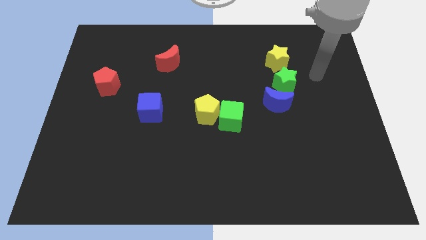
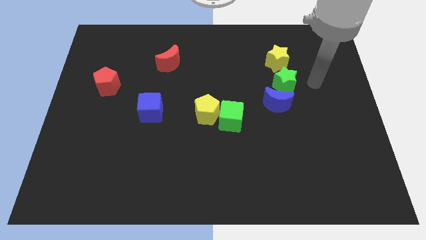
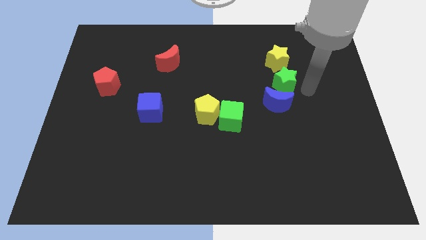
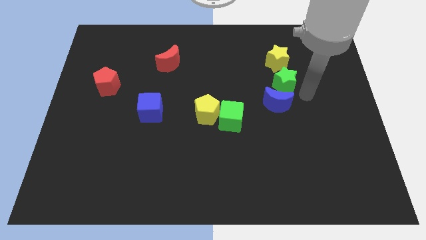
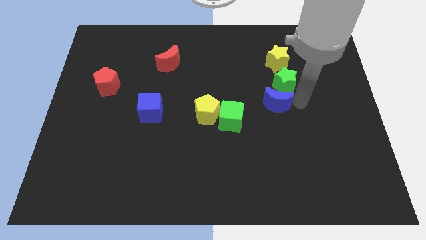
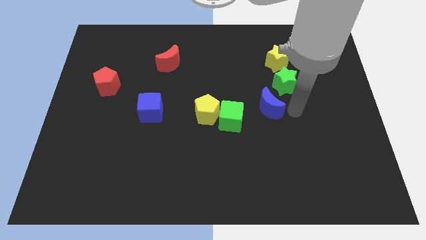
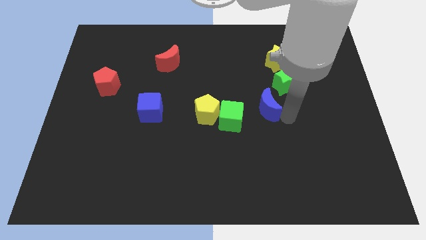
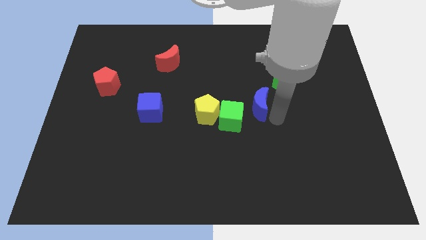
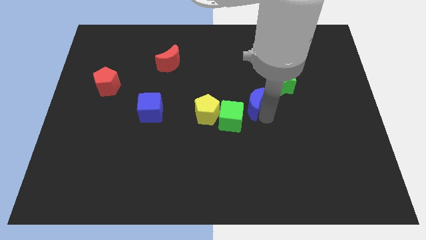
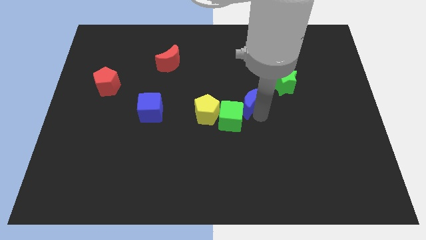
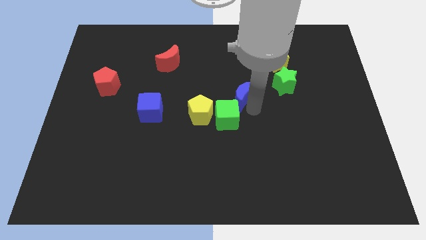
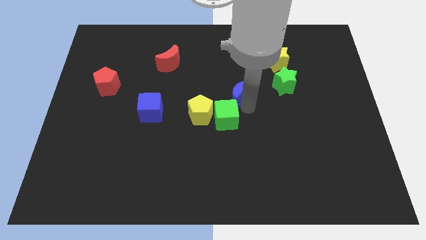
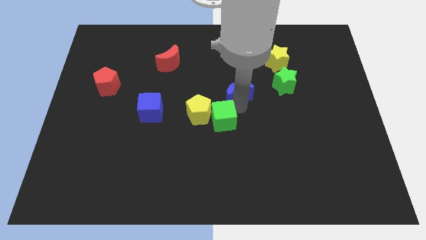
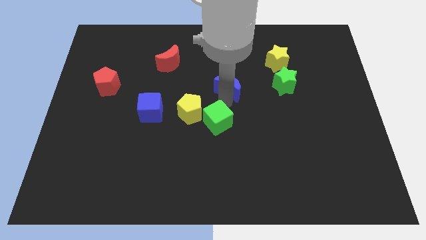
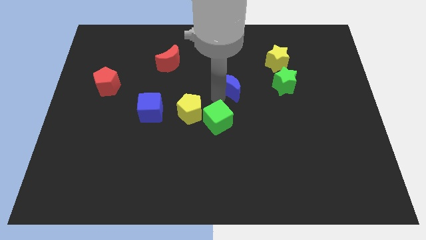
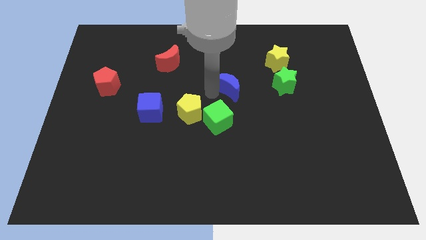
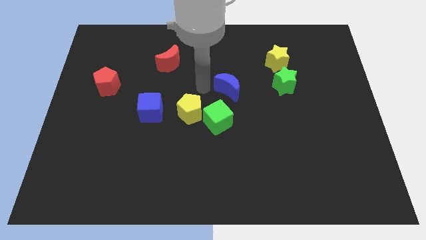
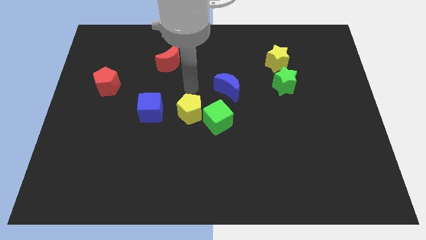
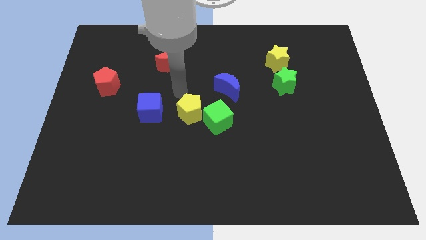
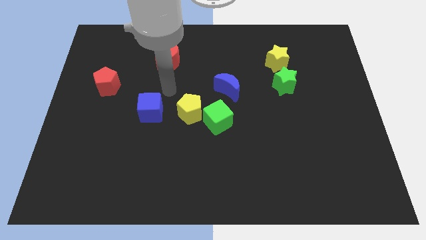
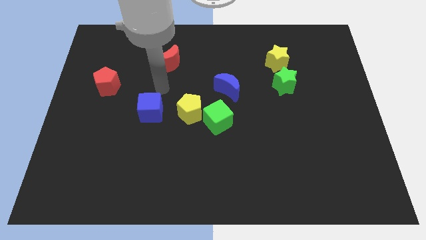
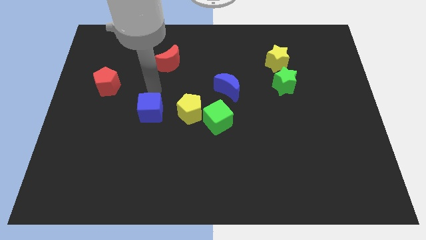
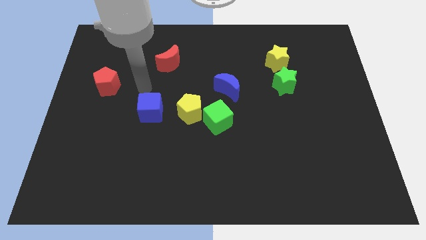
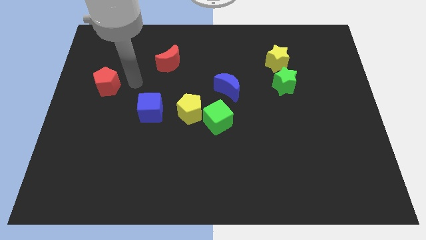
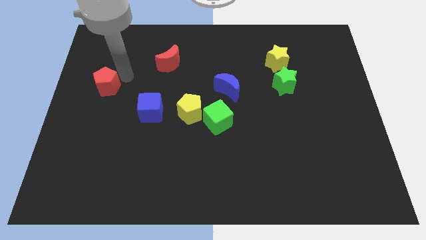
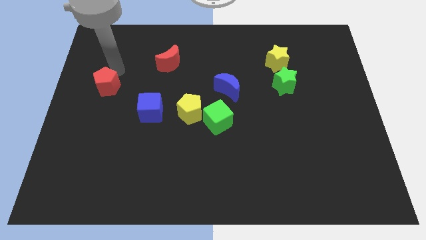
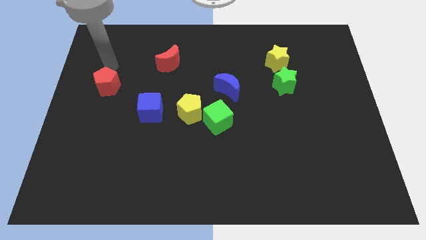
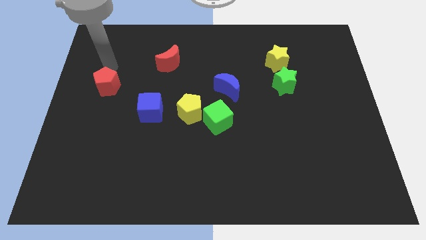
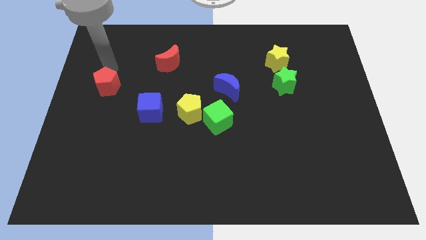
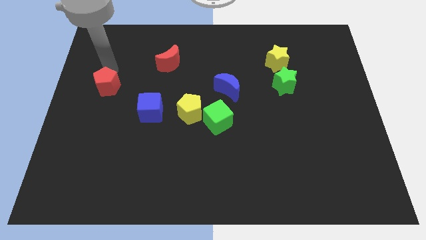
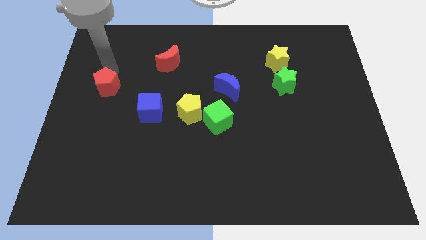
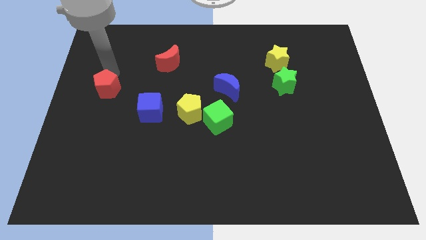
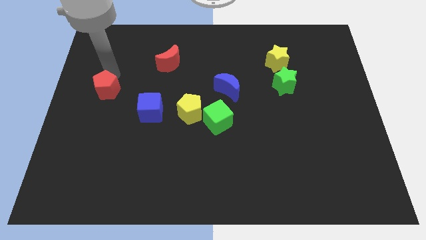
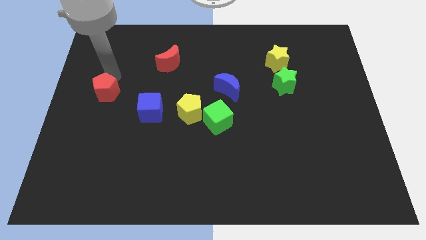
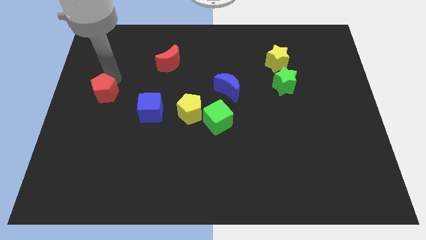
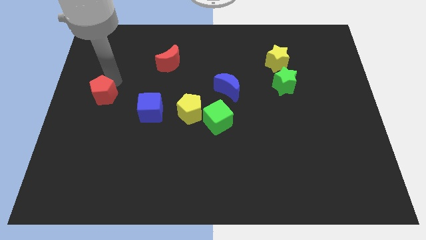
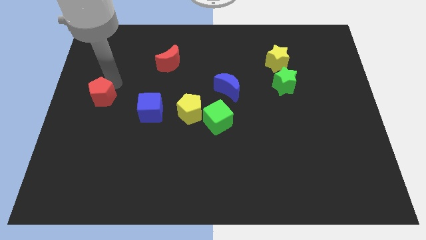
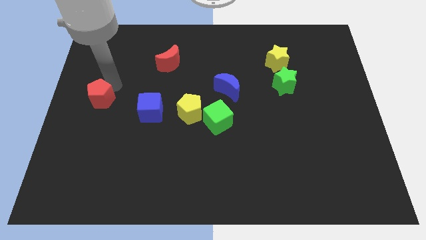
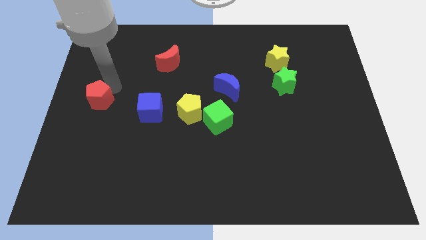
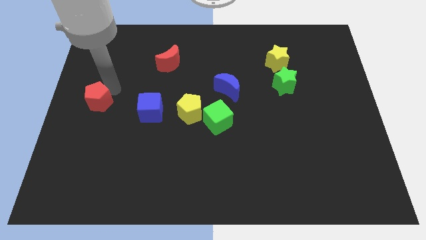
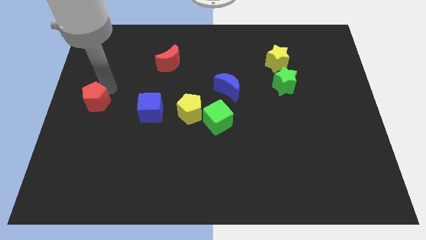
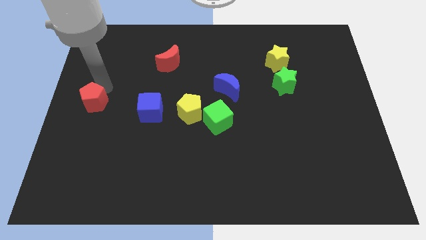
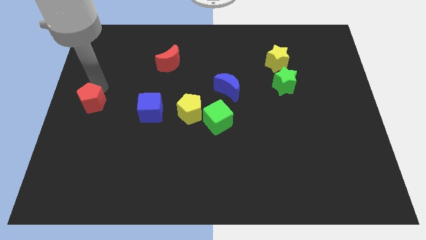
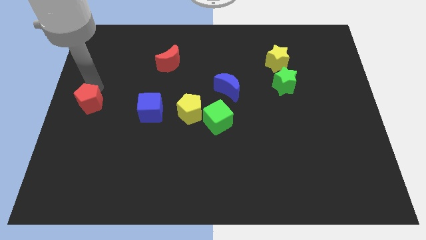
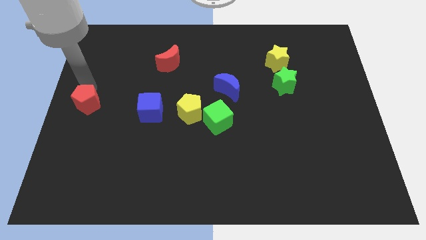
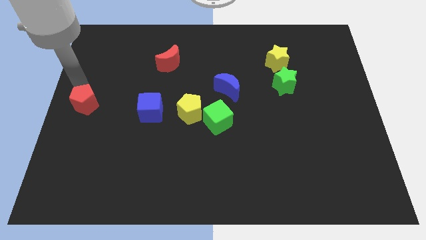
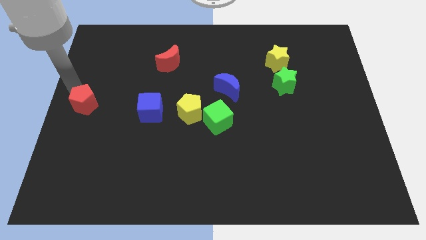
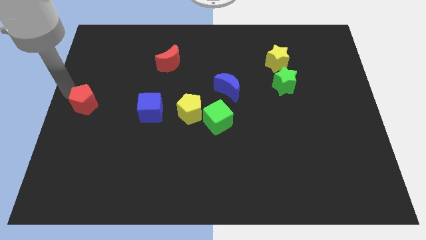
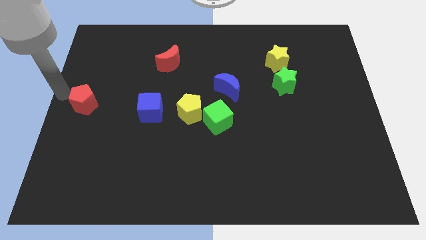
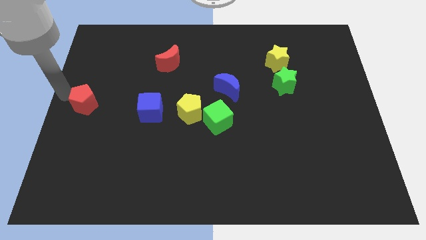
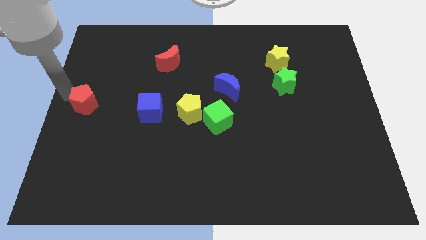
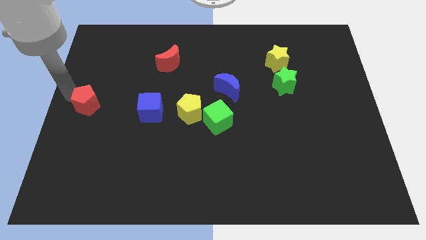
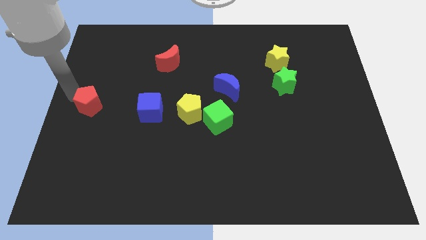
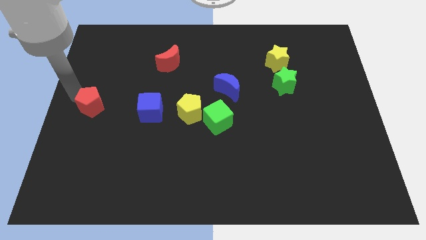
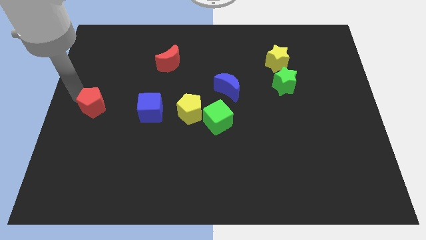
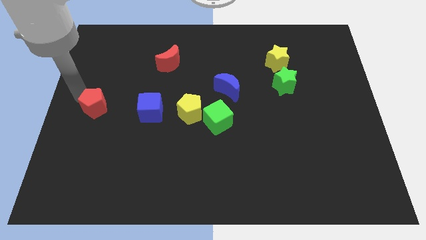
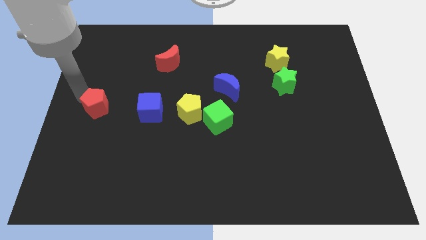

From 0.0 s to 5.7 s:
move the red pentagon down a little bit

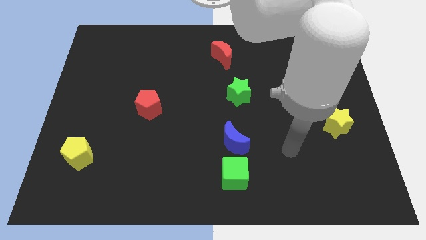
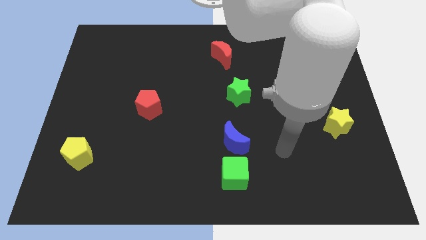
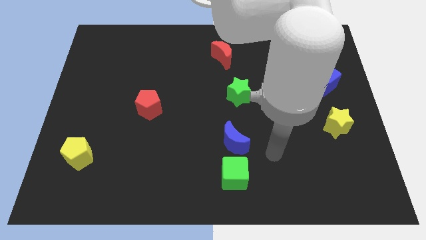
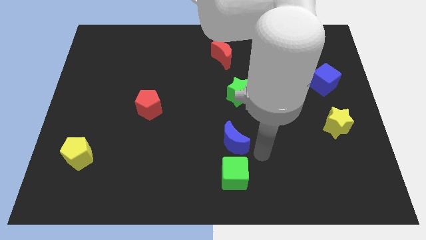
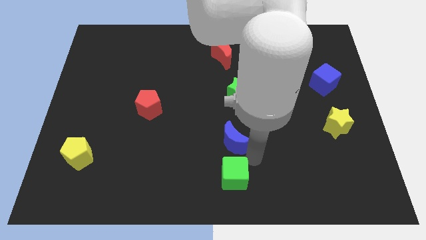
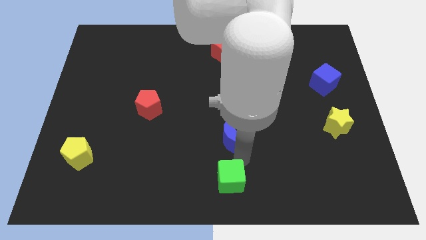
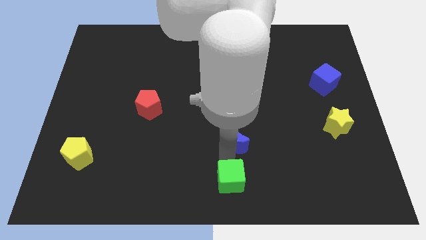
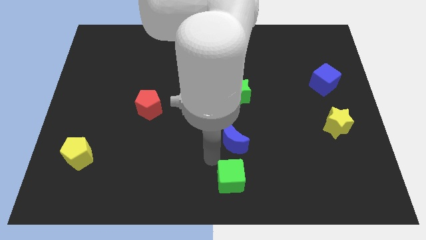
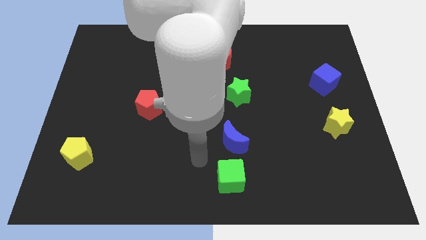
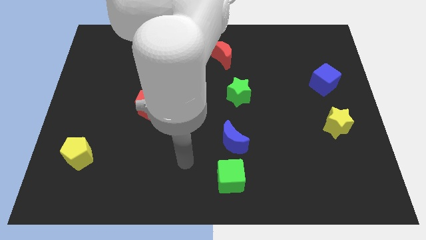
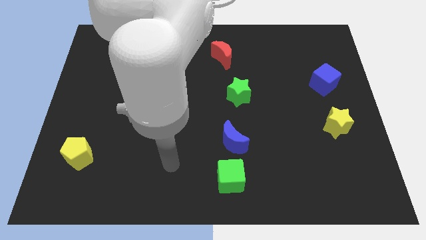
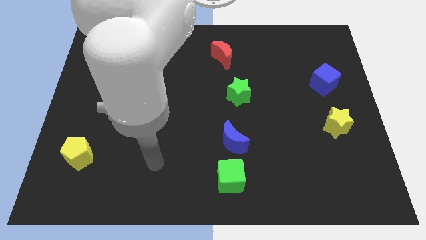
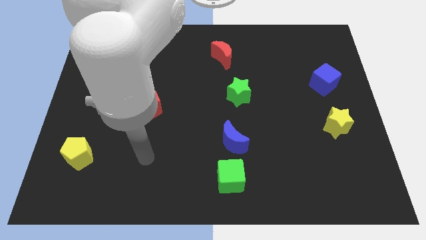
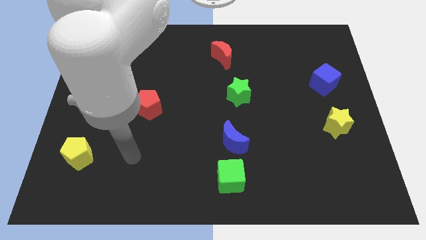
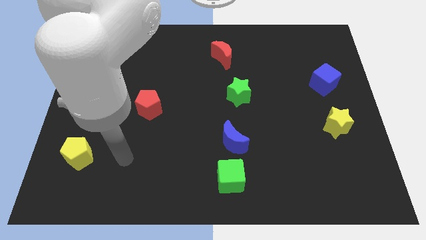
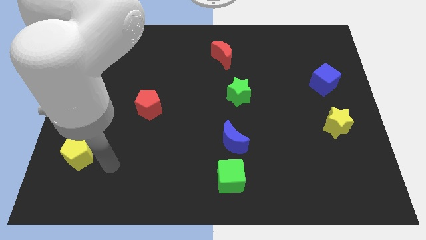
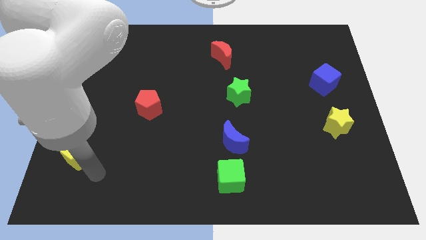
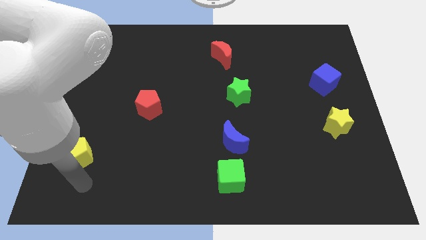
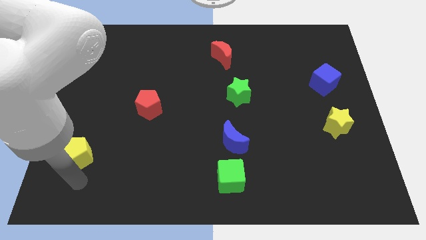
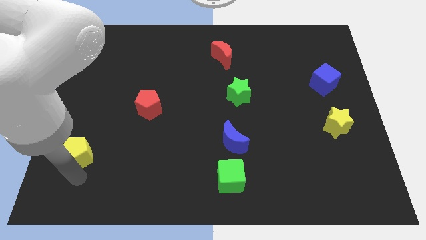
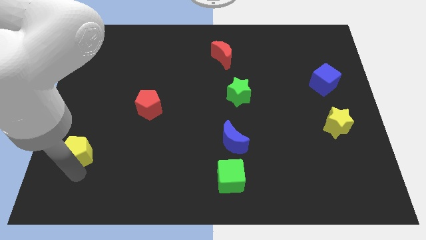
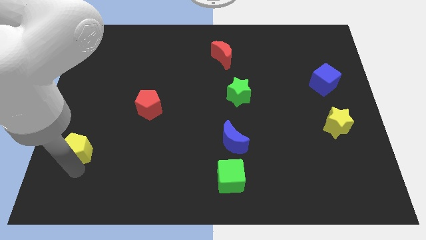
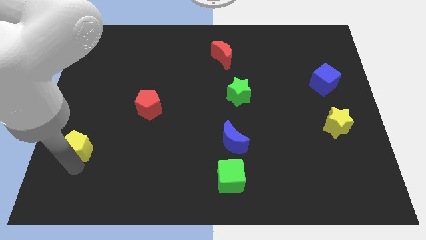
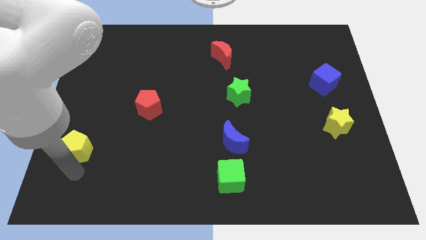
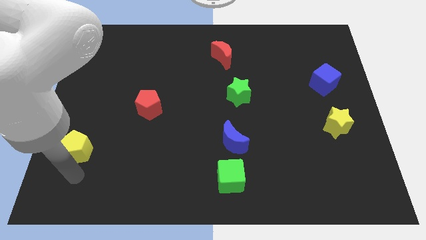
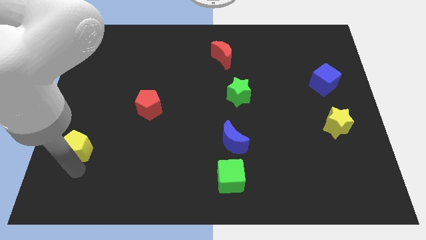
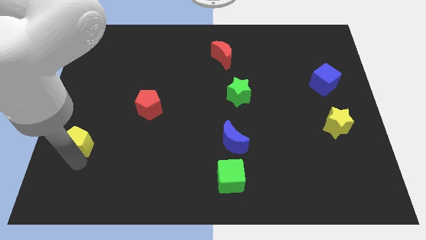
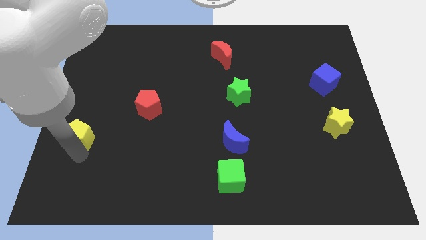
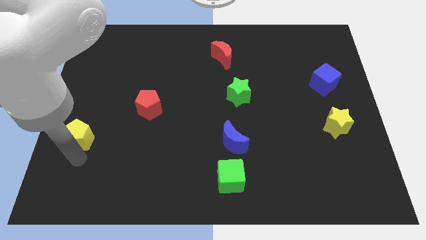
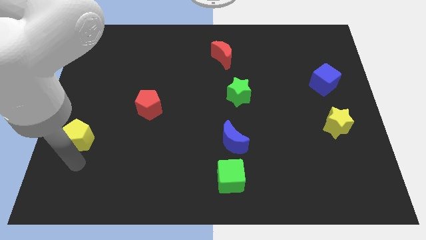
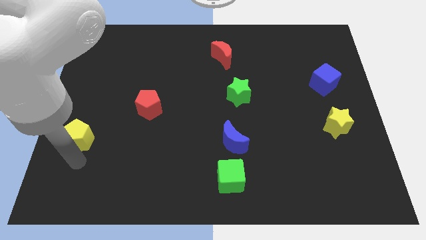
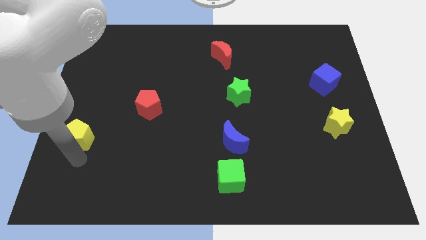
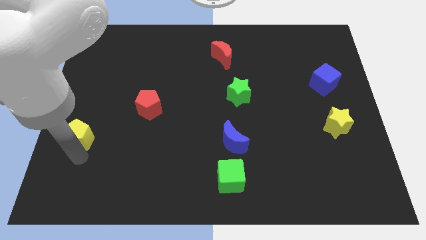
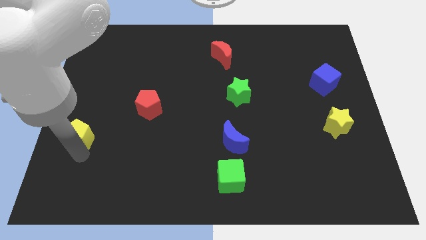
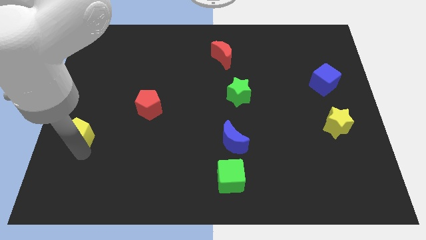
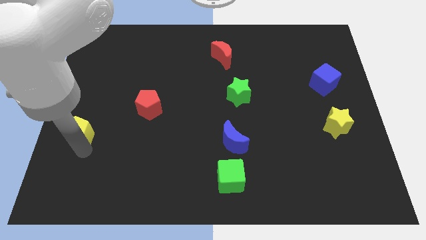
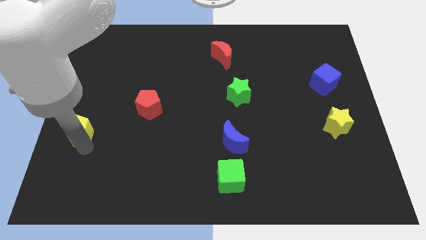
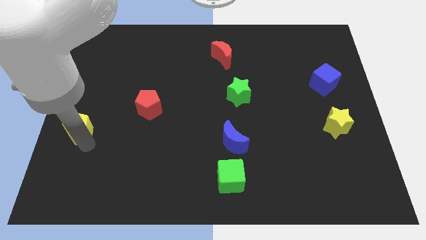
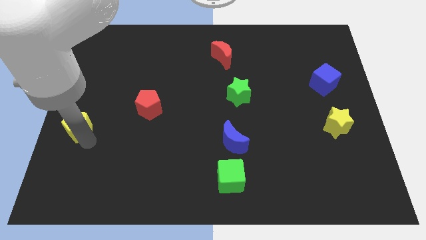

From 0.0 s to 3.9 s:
push the yellow pentagon up a little bit
